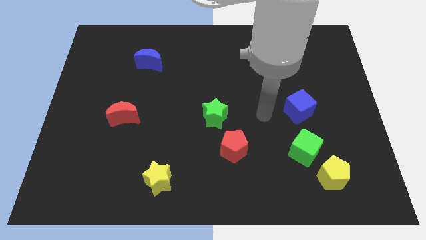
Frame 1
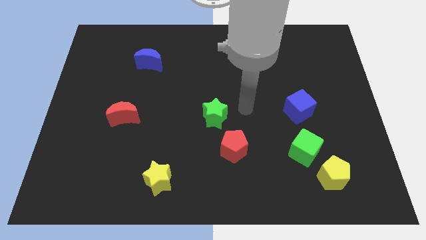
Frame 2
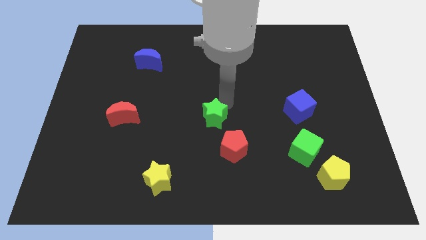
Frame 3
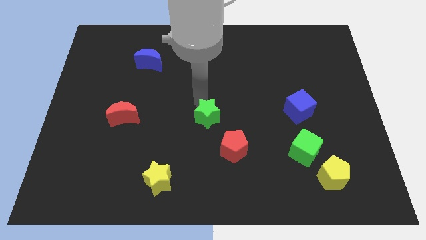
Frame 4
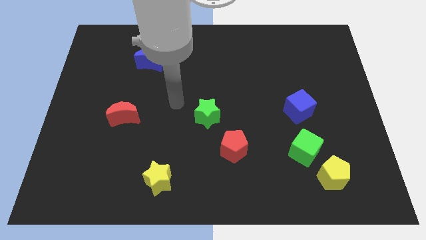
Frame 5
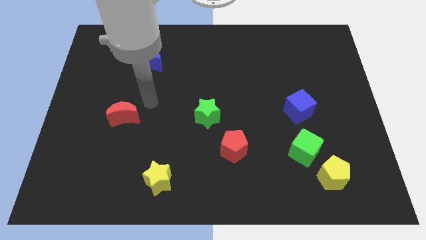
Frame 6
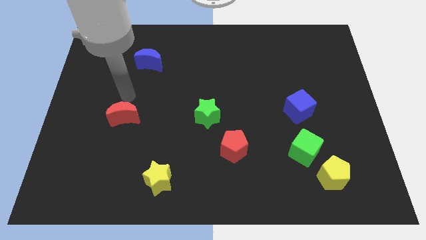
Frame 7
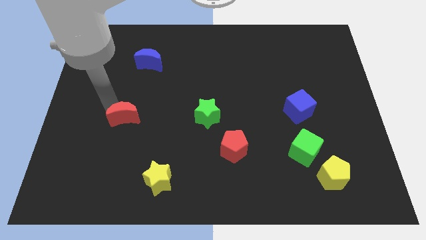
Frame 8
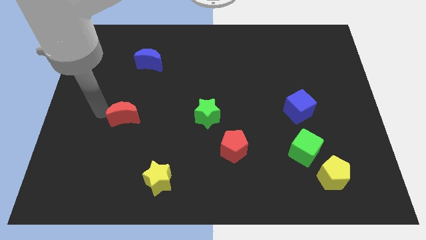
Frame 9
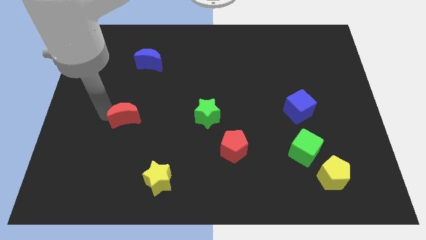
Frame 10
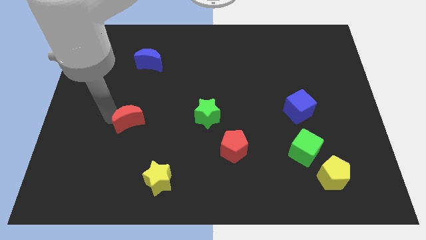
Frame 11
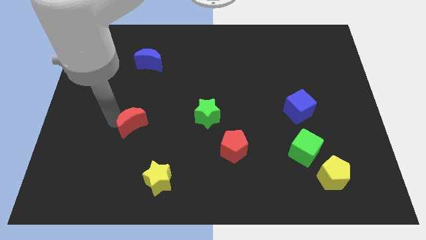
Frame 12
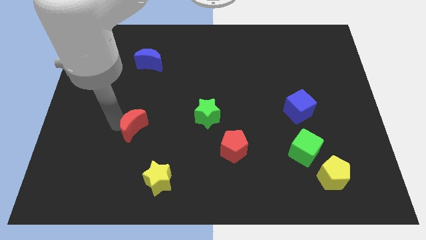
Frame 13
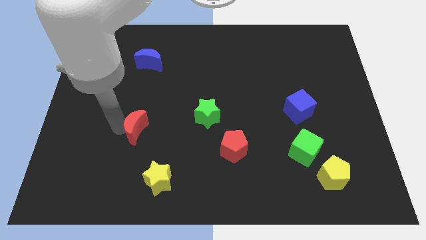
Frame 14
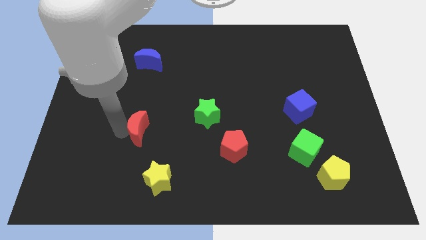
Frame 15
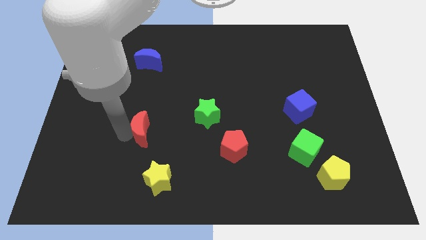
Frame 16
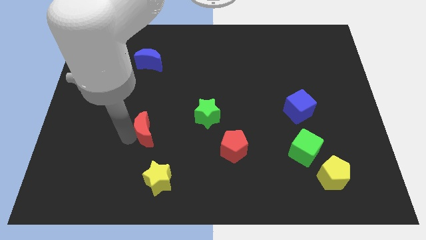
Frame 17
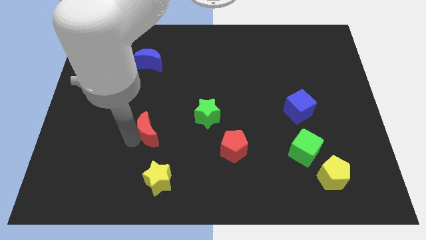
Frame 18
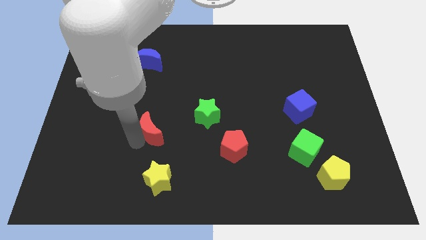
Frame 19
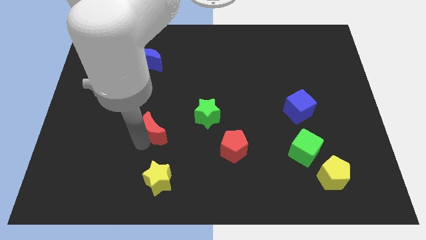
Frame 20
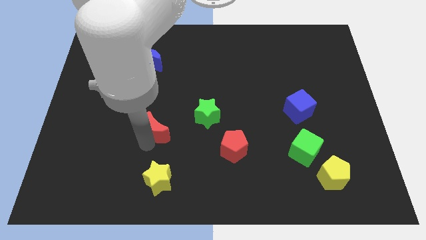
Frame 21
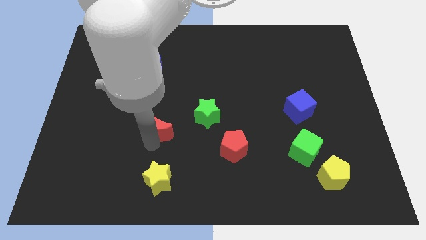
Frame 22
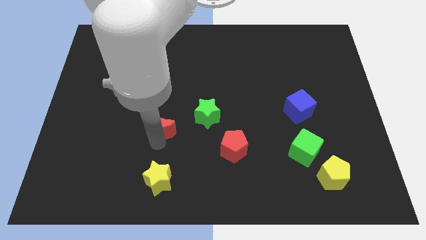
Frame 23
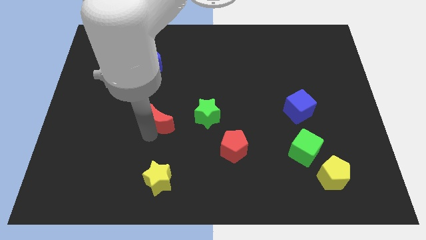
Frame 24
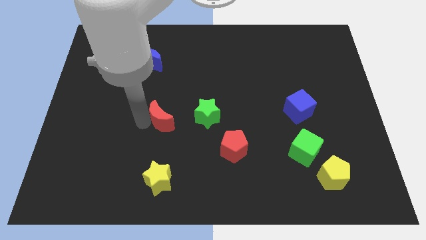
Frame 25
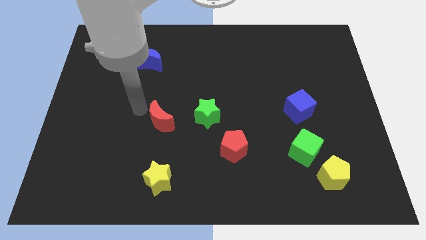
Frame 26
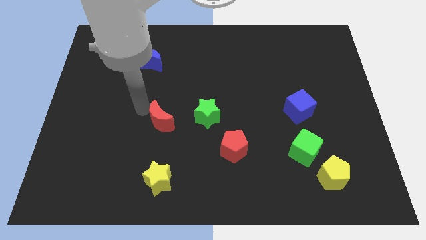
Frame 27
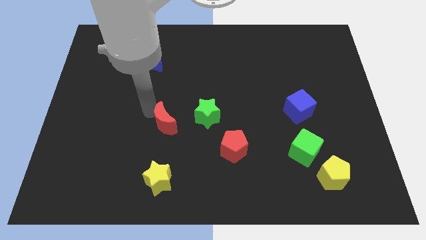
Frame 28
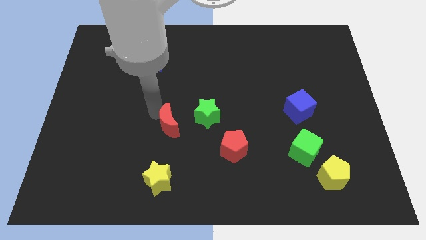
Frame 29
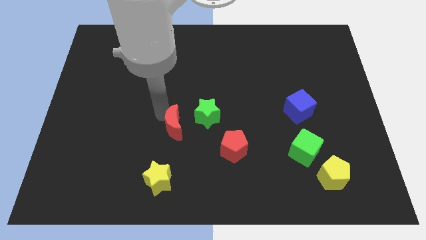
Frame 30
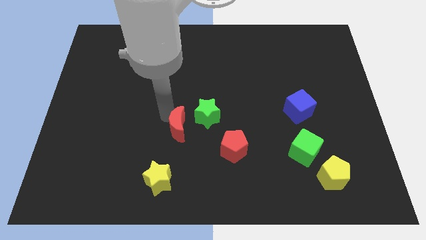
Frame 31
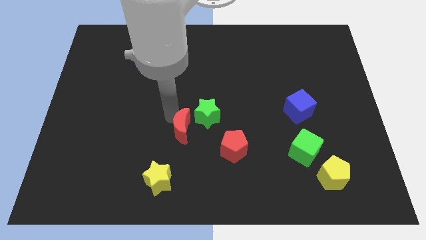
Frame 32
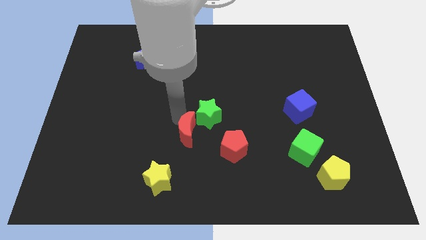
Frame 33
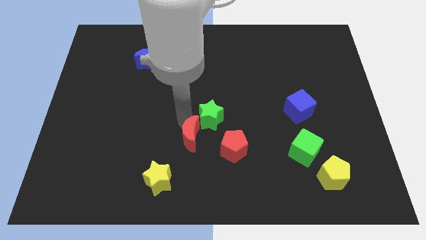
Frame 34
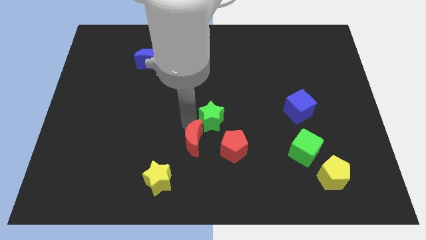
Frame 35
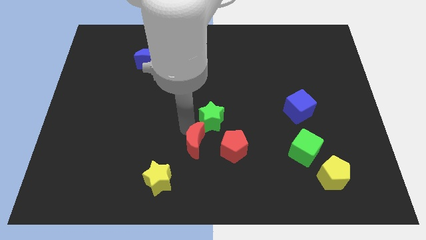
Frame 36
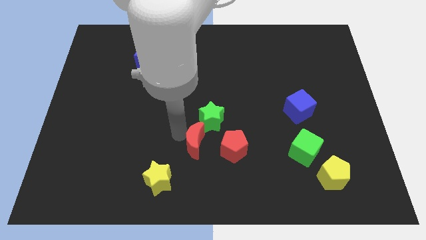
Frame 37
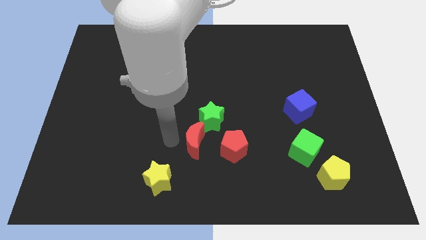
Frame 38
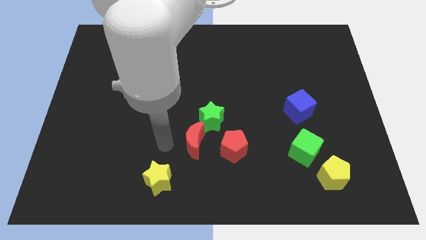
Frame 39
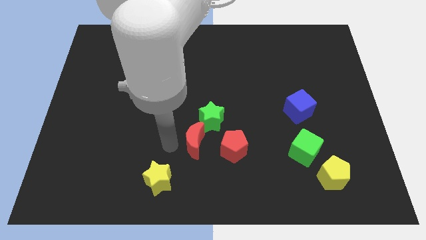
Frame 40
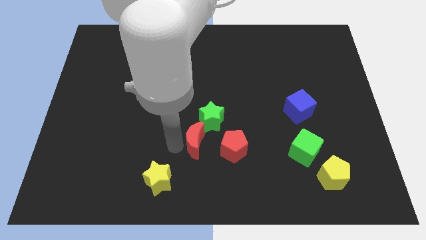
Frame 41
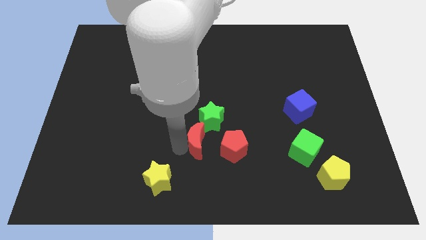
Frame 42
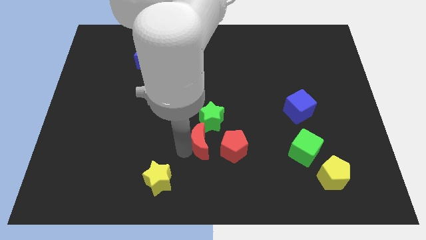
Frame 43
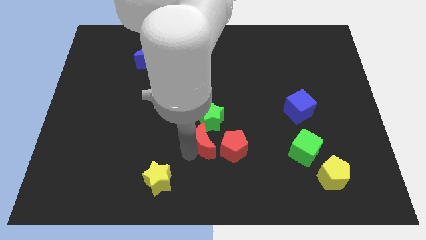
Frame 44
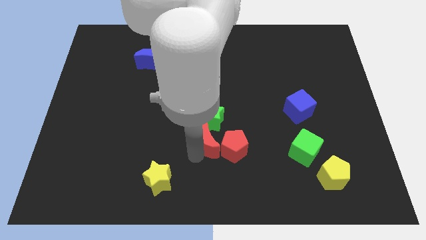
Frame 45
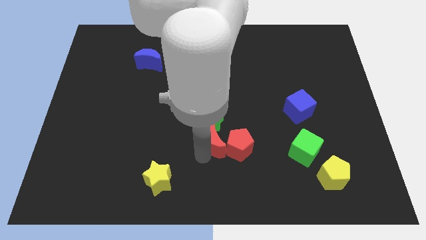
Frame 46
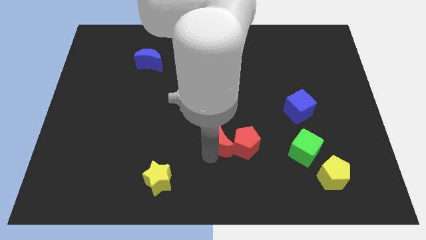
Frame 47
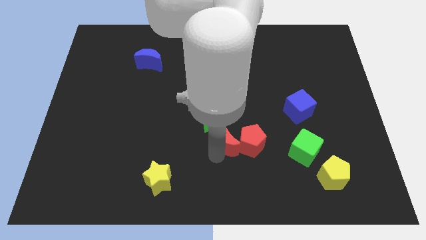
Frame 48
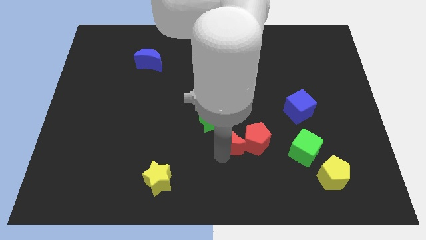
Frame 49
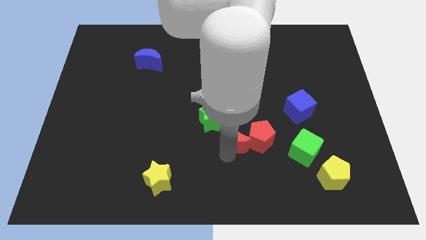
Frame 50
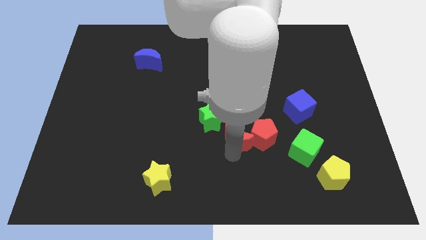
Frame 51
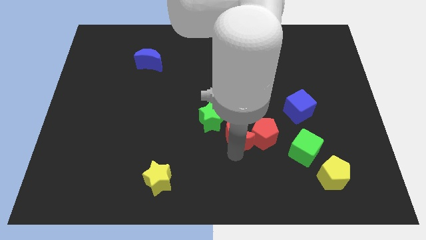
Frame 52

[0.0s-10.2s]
push the red moon to the right of the green star

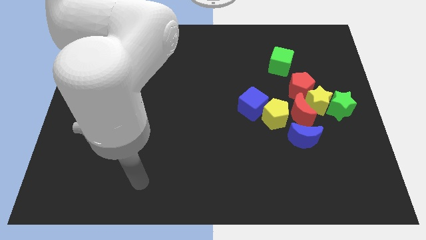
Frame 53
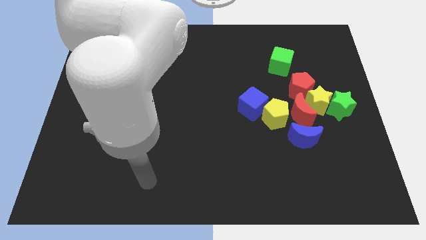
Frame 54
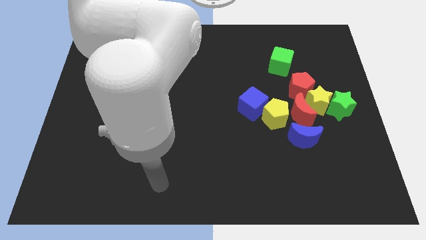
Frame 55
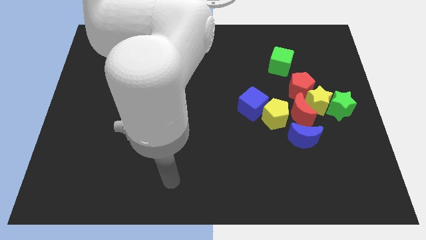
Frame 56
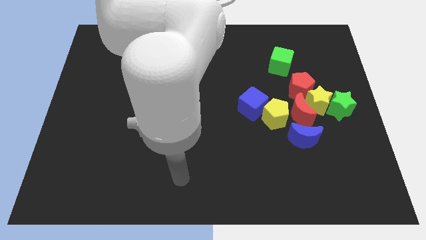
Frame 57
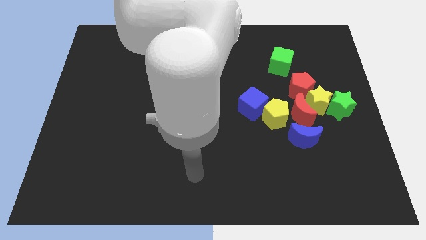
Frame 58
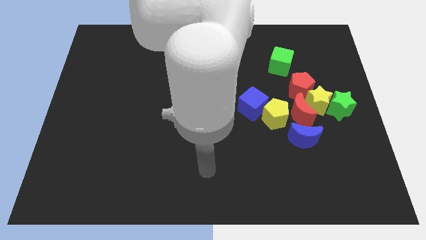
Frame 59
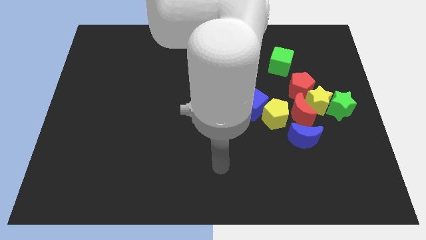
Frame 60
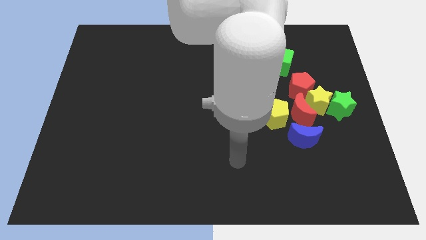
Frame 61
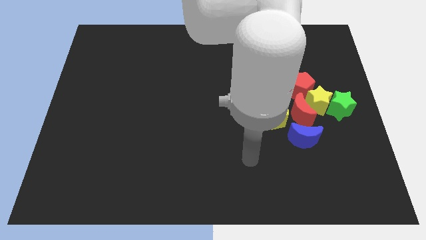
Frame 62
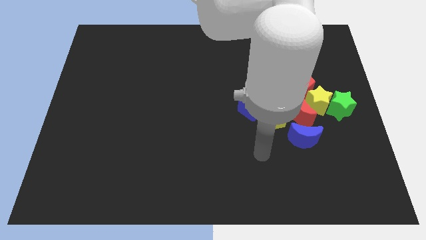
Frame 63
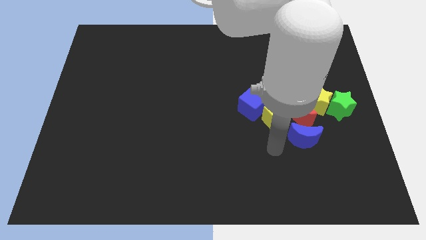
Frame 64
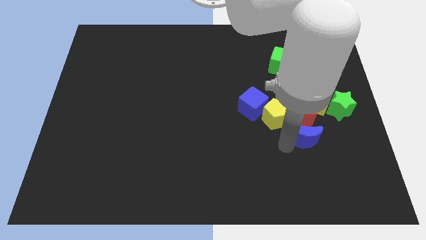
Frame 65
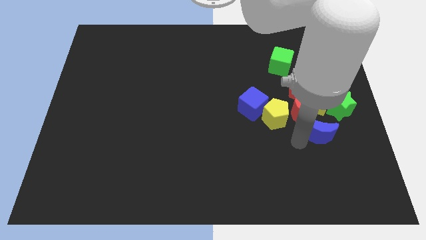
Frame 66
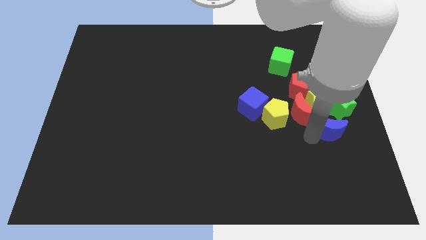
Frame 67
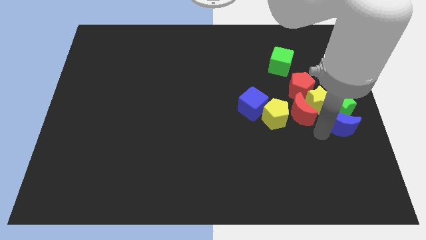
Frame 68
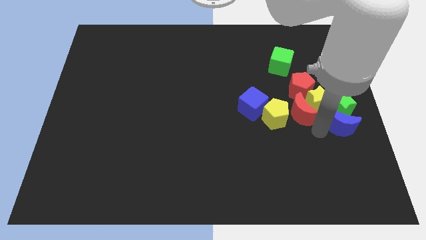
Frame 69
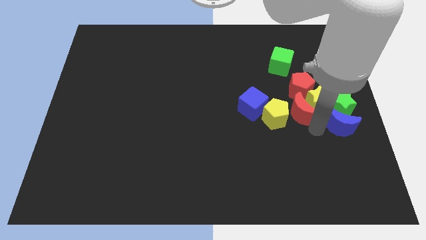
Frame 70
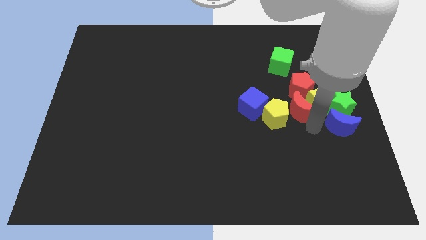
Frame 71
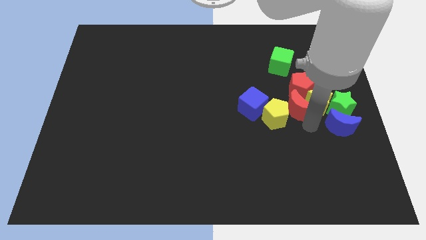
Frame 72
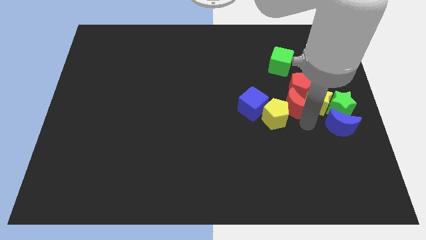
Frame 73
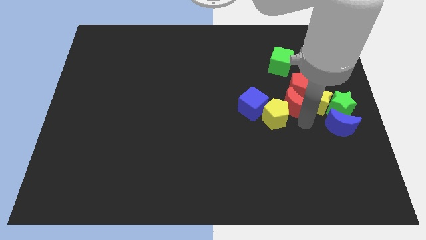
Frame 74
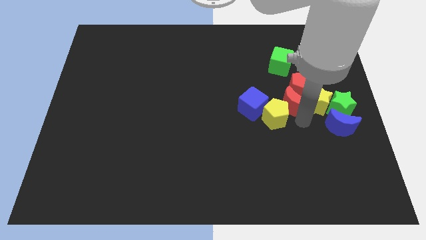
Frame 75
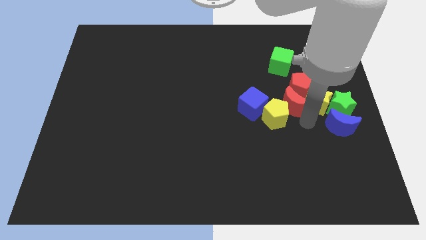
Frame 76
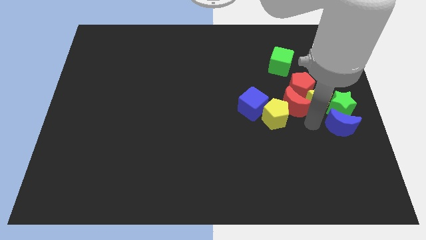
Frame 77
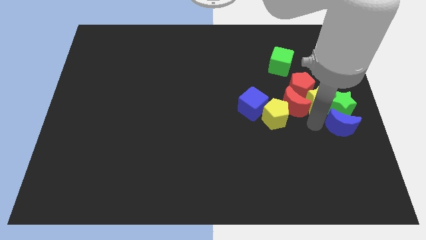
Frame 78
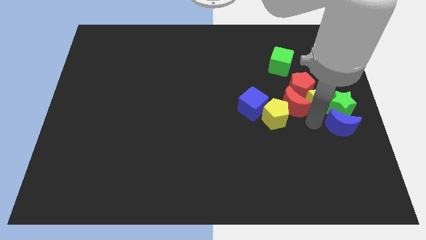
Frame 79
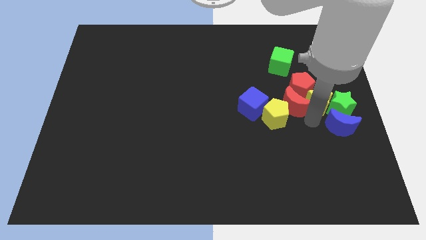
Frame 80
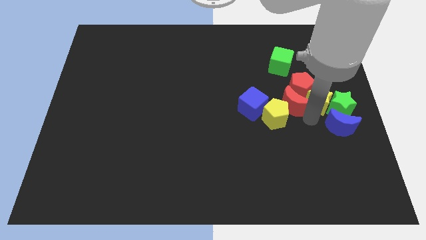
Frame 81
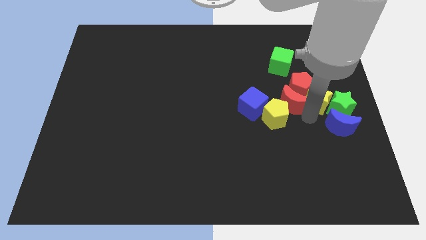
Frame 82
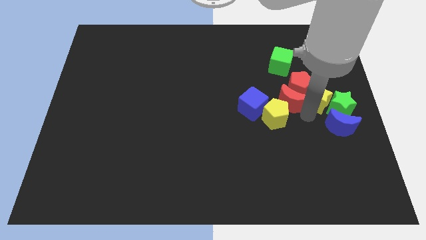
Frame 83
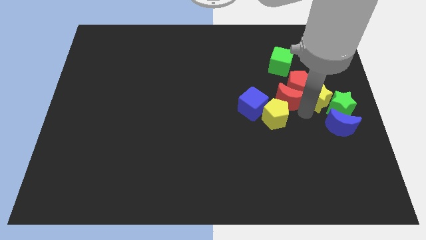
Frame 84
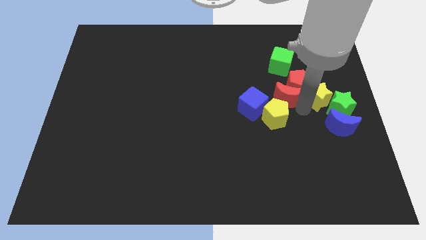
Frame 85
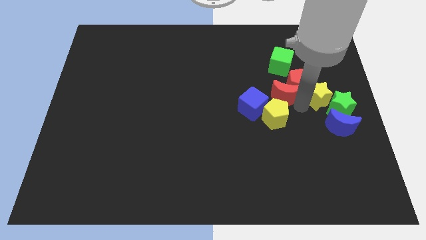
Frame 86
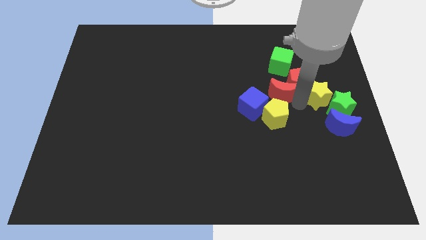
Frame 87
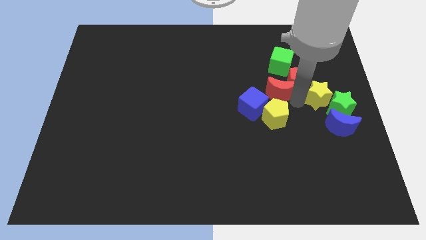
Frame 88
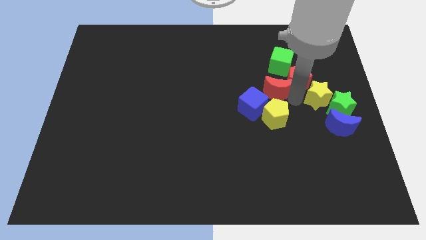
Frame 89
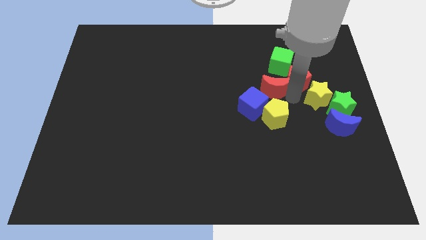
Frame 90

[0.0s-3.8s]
slide the red moon to the bottom left side of the green cube
